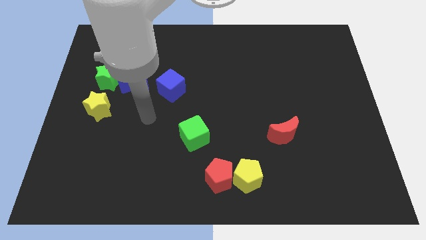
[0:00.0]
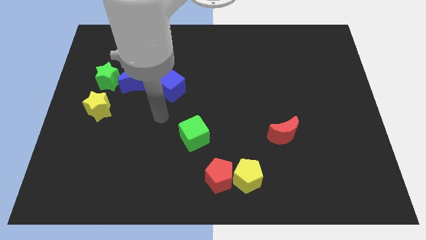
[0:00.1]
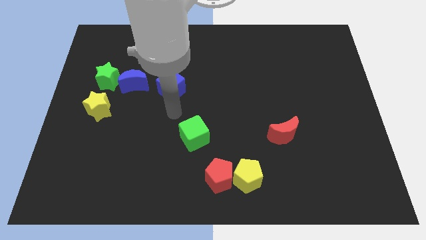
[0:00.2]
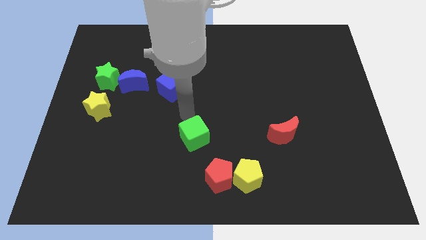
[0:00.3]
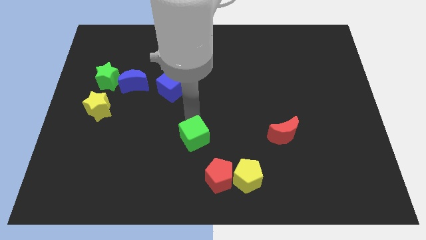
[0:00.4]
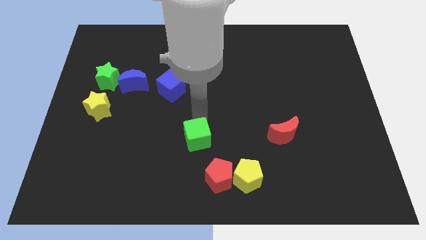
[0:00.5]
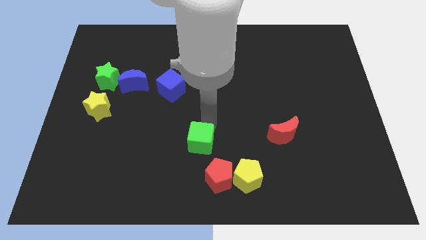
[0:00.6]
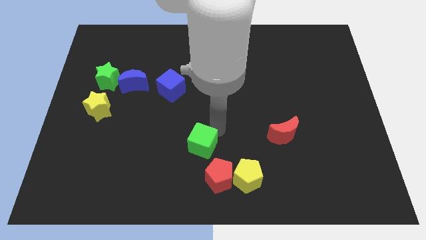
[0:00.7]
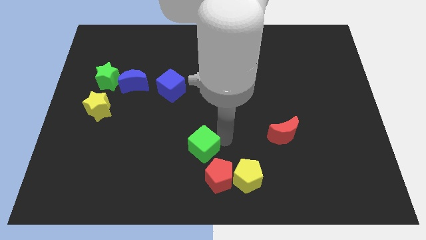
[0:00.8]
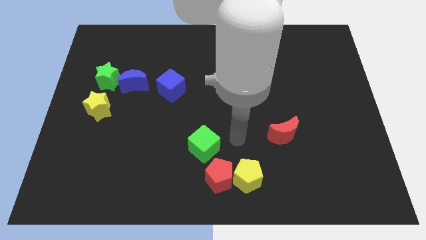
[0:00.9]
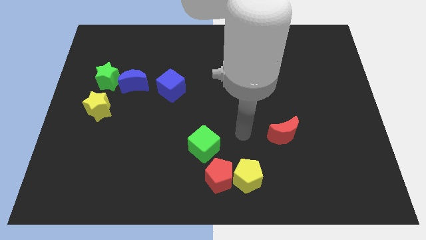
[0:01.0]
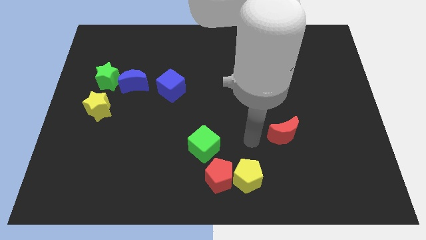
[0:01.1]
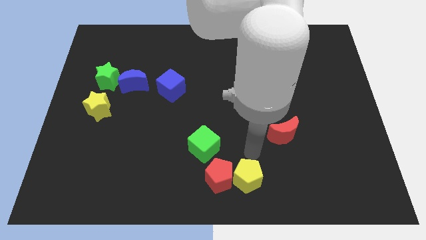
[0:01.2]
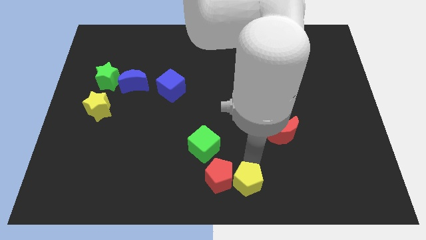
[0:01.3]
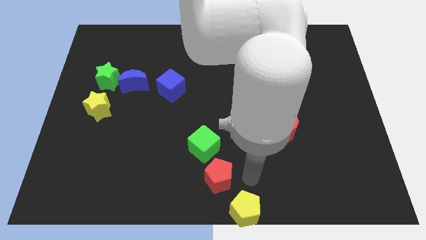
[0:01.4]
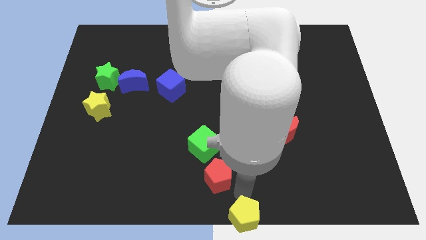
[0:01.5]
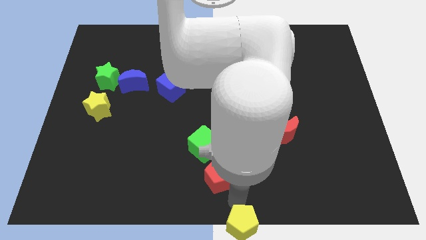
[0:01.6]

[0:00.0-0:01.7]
pull the red pentagon apart from the yellow pentagon

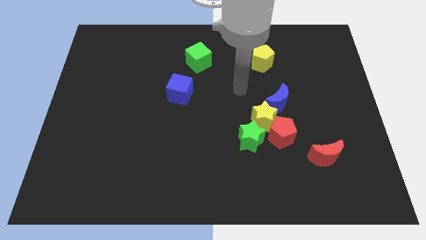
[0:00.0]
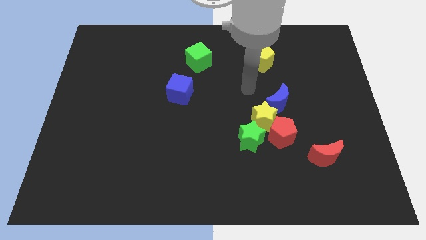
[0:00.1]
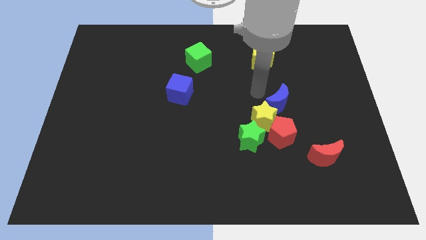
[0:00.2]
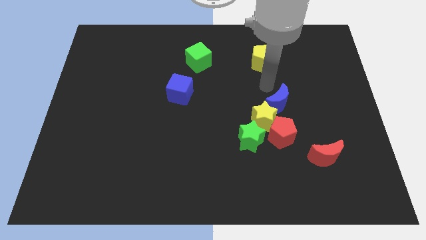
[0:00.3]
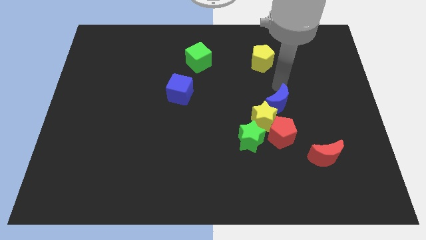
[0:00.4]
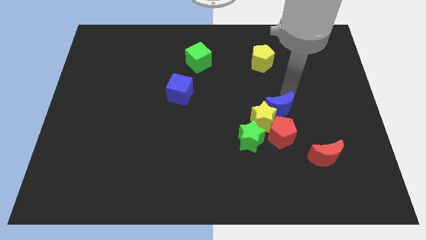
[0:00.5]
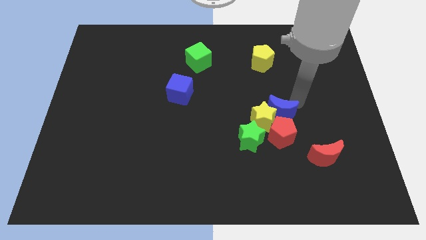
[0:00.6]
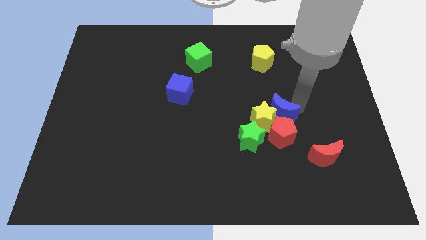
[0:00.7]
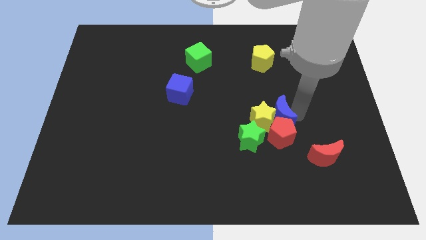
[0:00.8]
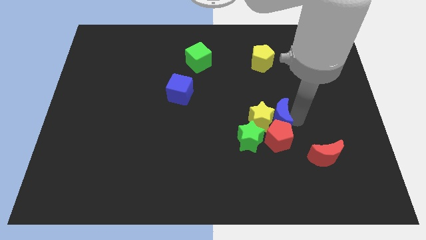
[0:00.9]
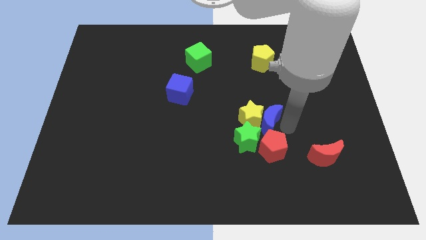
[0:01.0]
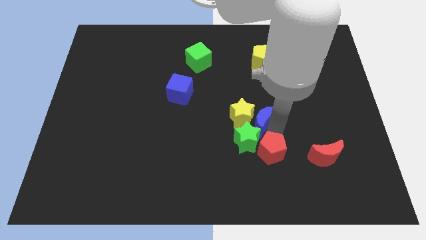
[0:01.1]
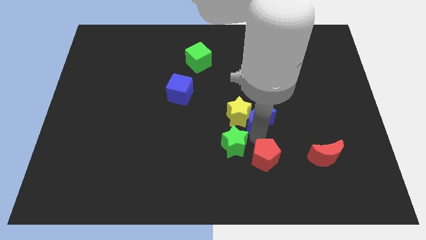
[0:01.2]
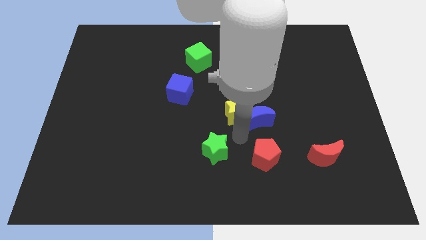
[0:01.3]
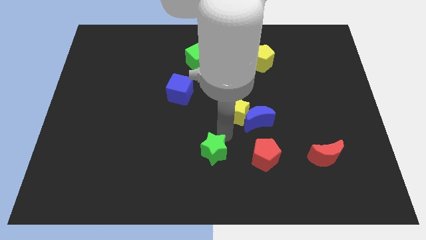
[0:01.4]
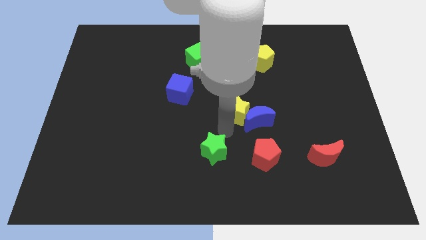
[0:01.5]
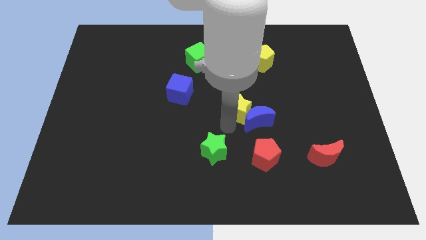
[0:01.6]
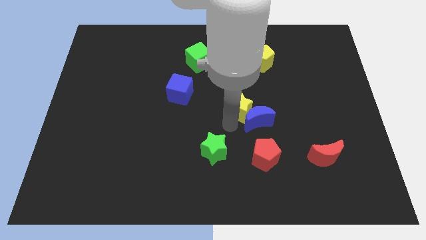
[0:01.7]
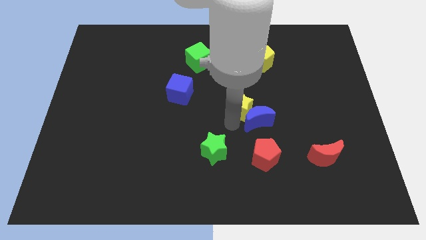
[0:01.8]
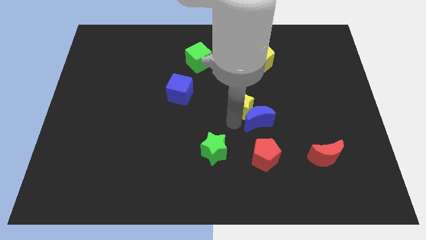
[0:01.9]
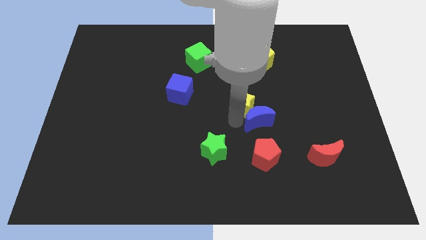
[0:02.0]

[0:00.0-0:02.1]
pull the yellow star apart from the red pentagon, blue moon, and green star

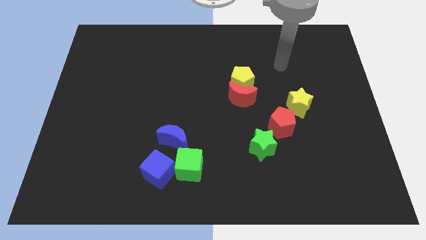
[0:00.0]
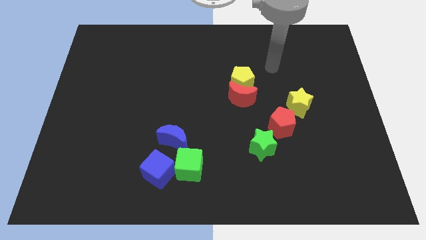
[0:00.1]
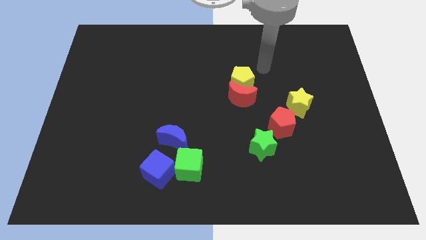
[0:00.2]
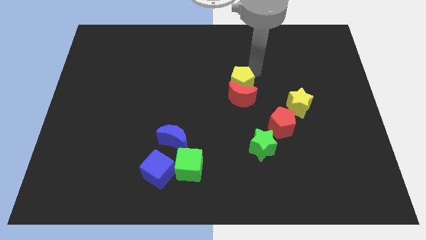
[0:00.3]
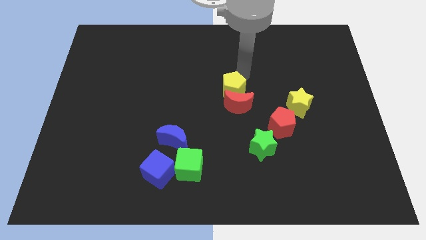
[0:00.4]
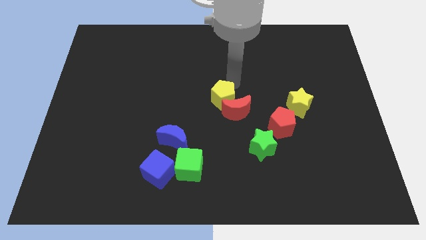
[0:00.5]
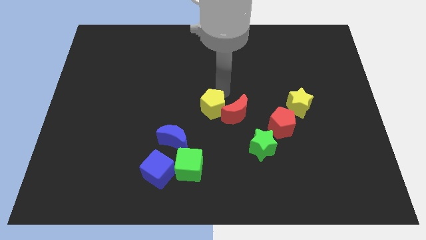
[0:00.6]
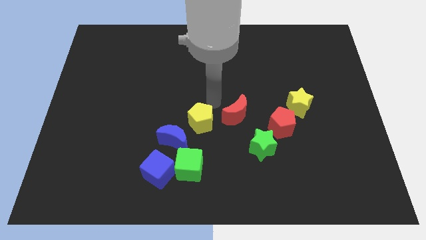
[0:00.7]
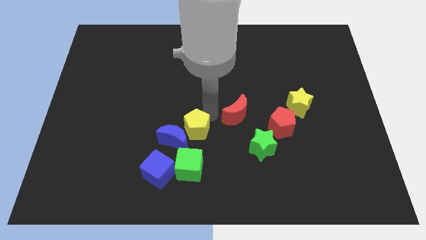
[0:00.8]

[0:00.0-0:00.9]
pull the red moon apart from the yellow pentagon

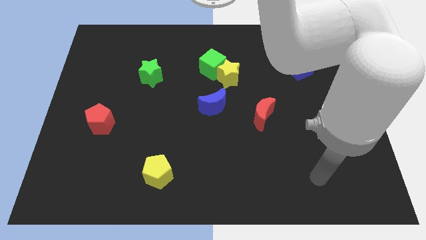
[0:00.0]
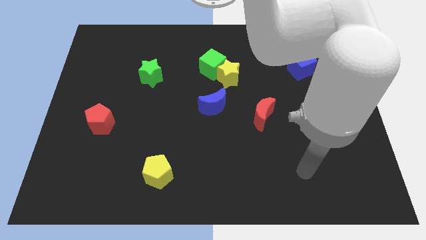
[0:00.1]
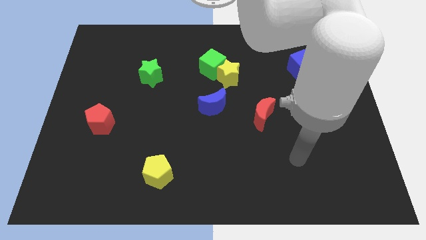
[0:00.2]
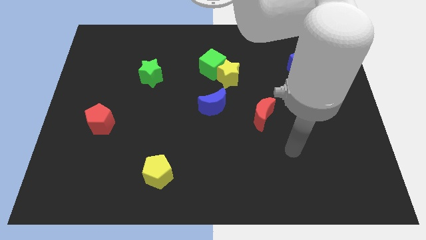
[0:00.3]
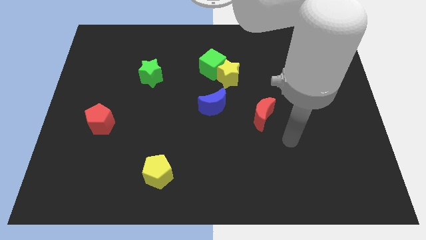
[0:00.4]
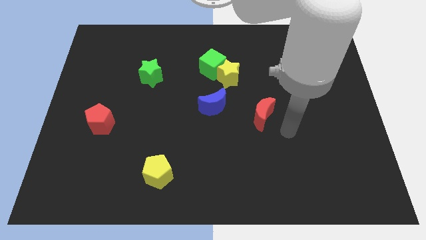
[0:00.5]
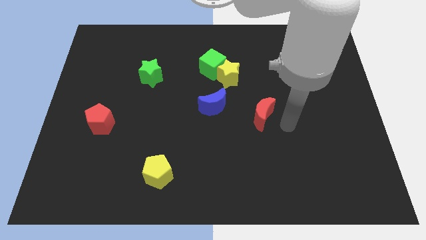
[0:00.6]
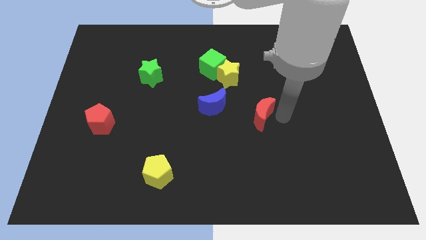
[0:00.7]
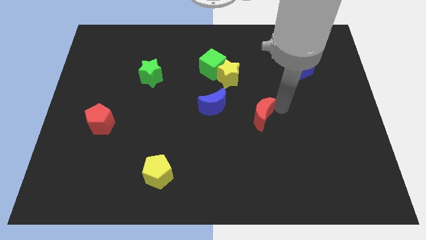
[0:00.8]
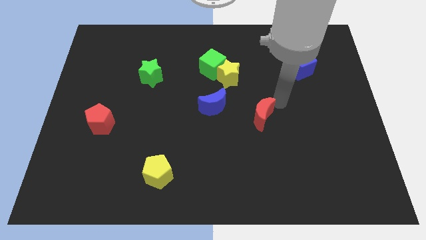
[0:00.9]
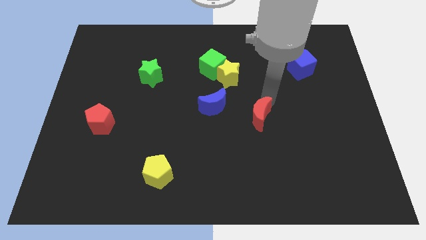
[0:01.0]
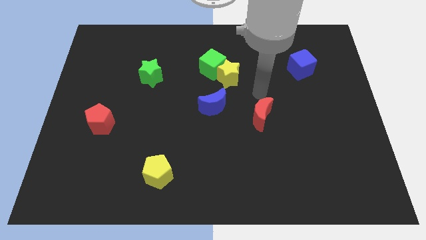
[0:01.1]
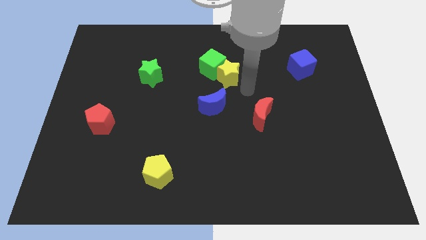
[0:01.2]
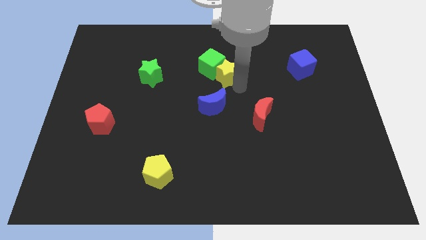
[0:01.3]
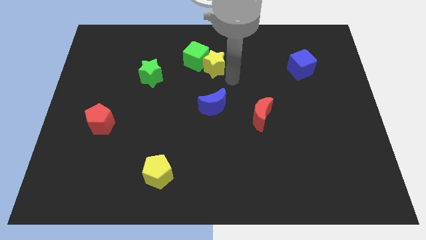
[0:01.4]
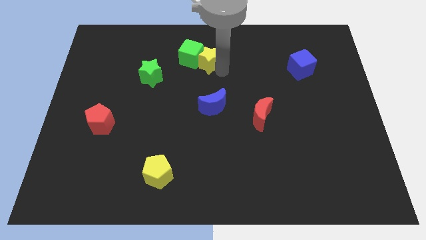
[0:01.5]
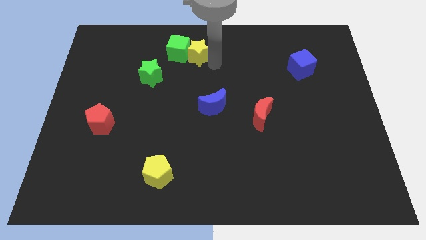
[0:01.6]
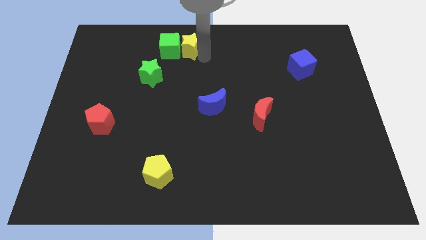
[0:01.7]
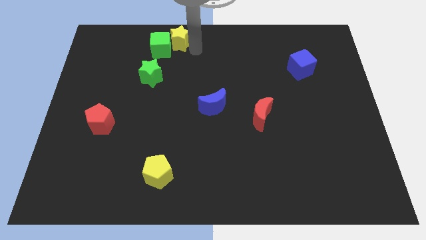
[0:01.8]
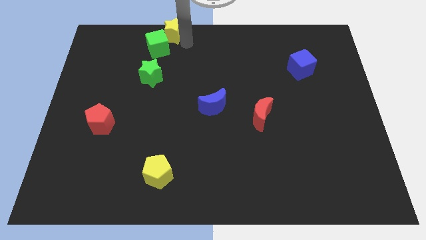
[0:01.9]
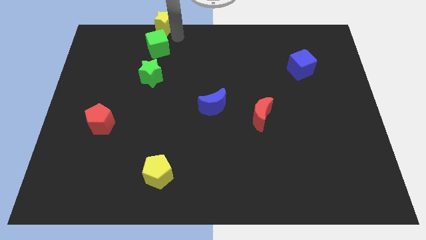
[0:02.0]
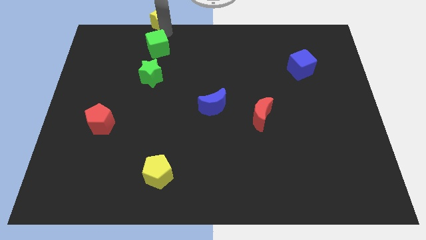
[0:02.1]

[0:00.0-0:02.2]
separate the green cube from the yellow star

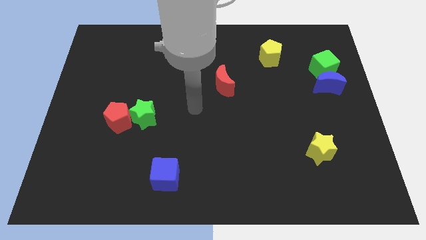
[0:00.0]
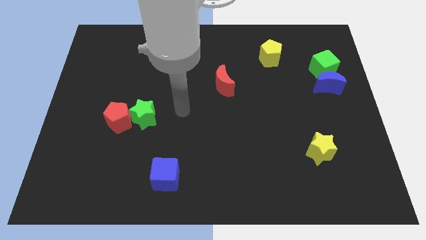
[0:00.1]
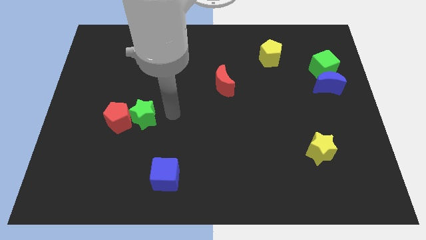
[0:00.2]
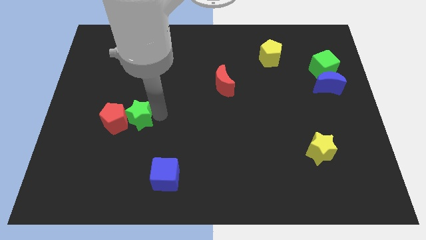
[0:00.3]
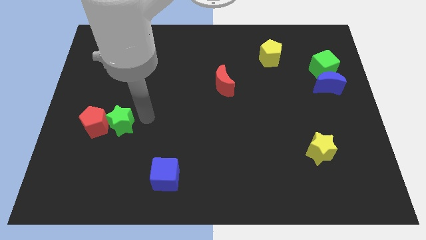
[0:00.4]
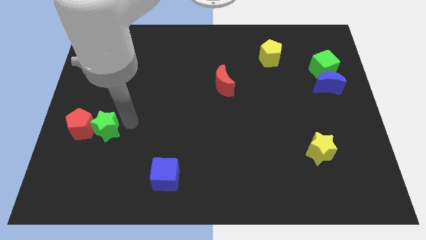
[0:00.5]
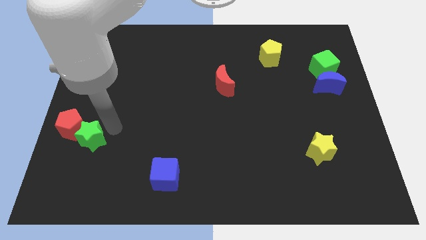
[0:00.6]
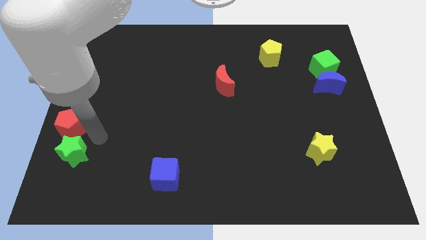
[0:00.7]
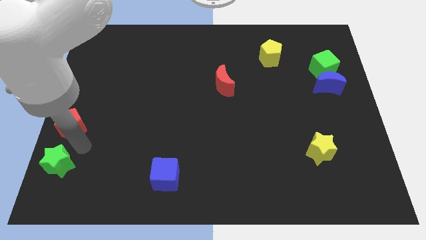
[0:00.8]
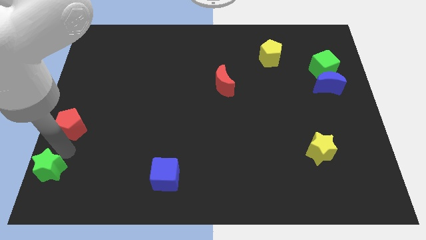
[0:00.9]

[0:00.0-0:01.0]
pull the red pentagon apart from the green star

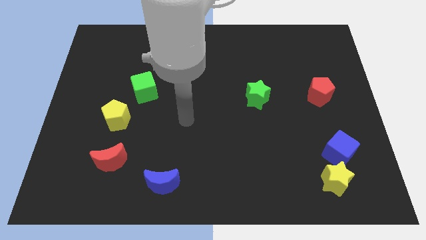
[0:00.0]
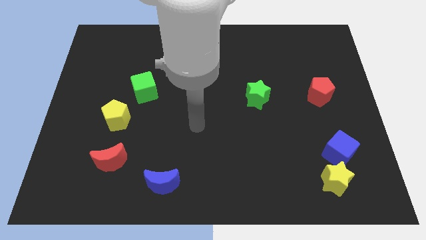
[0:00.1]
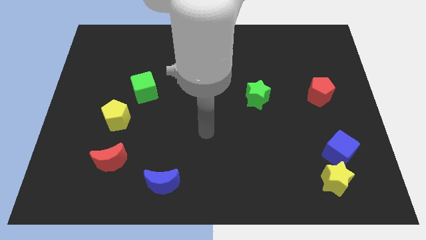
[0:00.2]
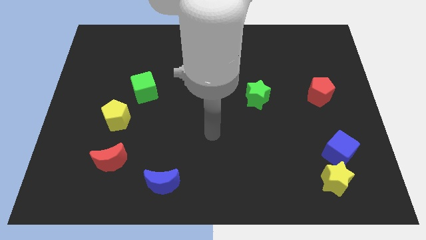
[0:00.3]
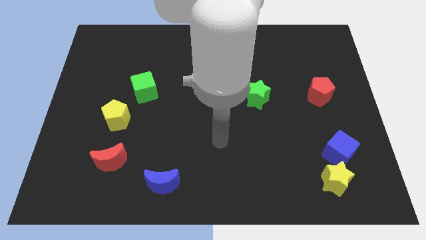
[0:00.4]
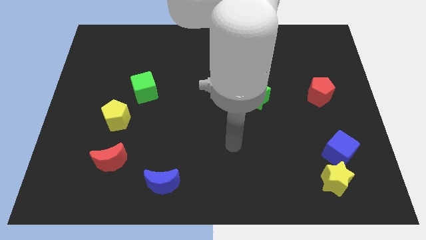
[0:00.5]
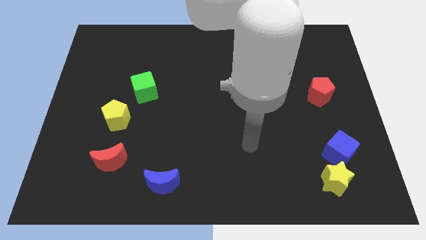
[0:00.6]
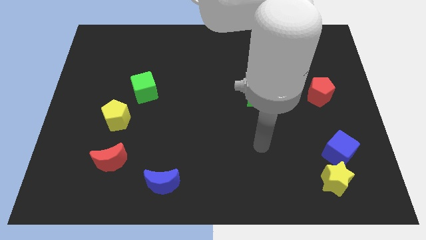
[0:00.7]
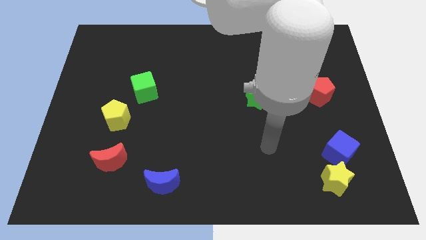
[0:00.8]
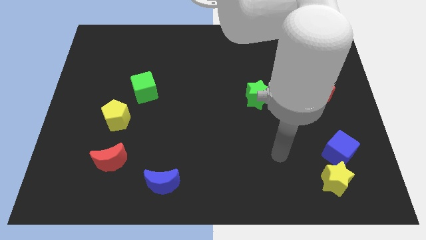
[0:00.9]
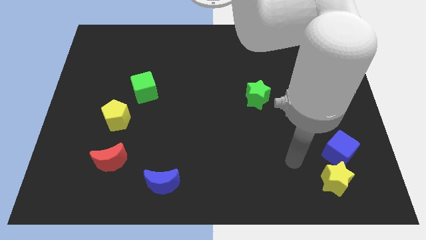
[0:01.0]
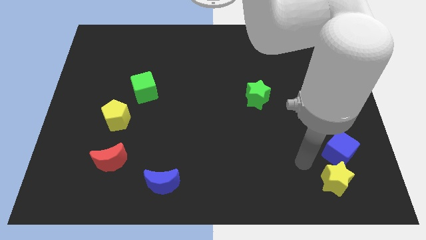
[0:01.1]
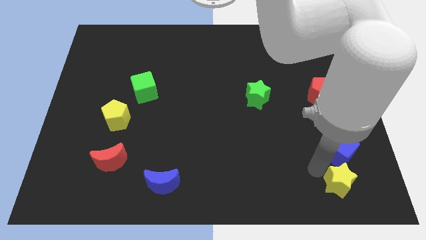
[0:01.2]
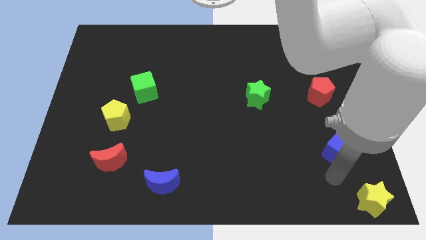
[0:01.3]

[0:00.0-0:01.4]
pull the blue cube apart from the yellow star
